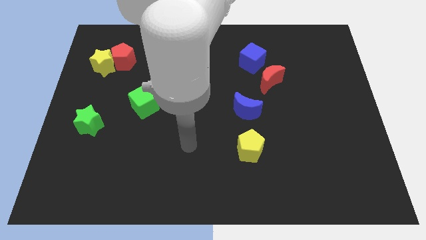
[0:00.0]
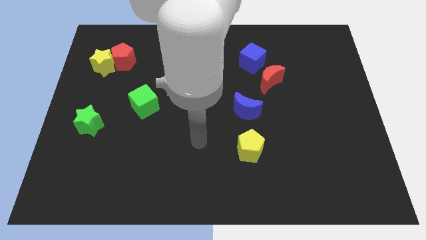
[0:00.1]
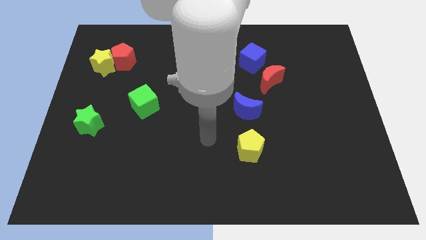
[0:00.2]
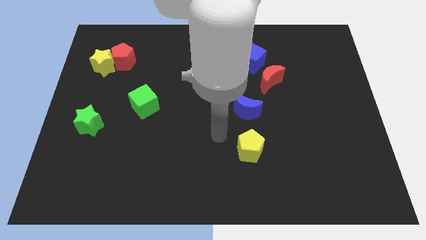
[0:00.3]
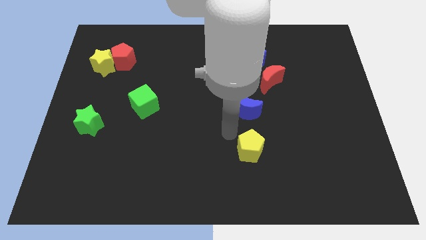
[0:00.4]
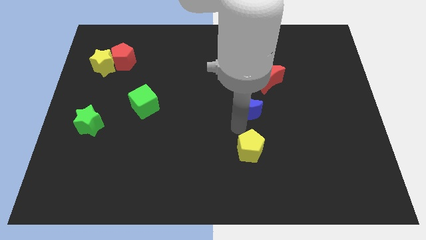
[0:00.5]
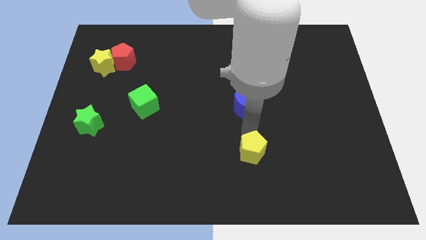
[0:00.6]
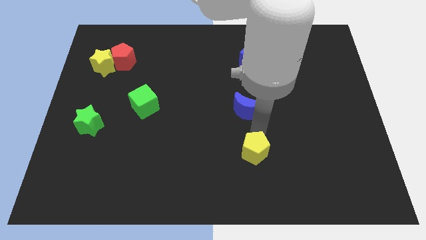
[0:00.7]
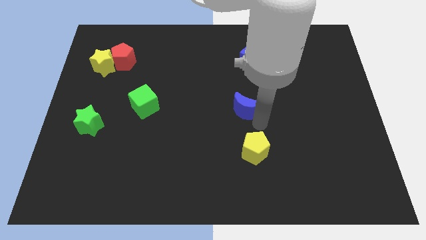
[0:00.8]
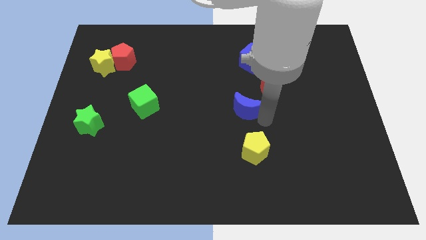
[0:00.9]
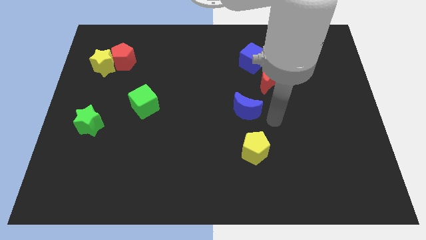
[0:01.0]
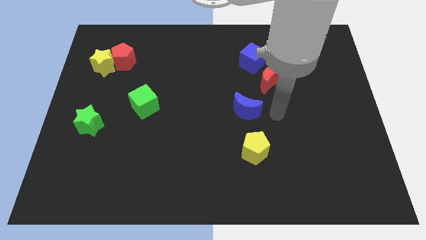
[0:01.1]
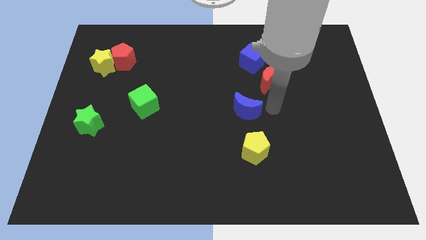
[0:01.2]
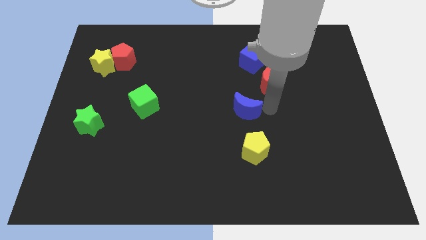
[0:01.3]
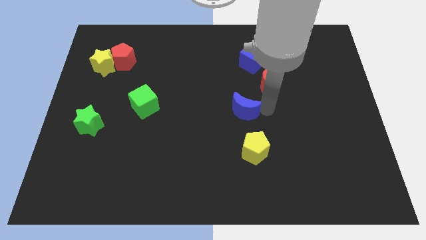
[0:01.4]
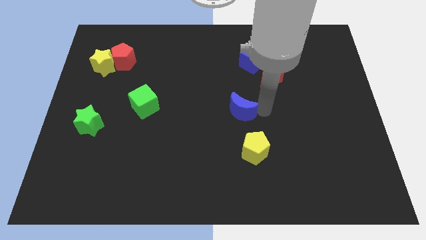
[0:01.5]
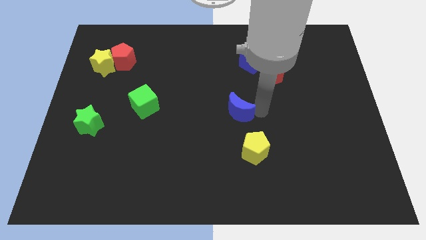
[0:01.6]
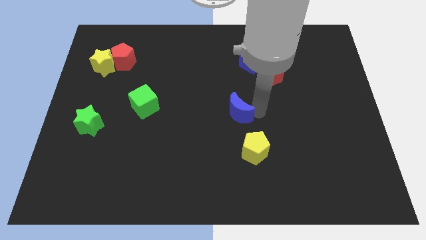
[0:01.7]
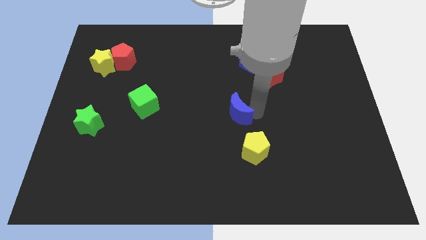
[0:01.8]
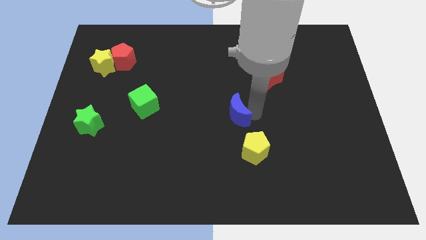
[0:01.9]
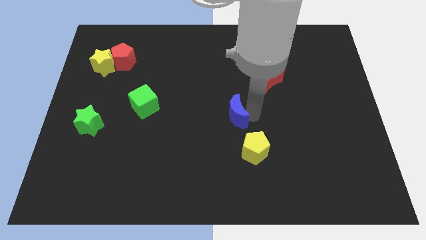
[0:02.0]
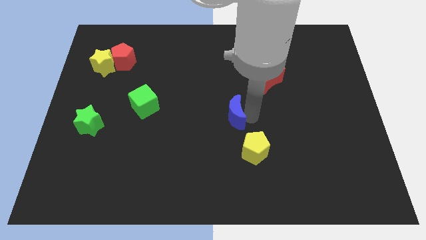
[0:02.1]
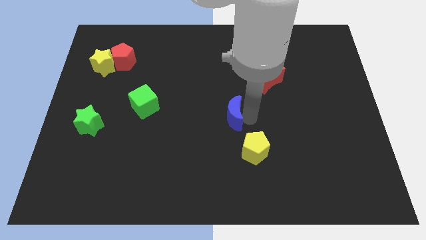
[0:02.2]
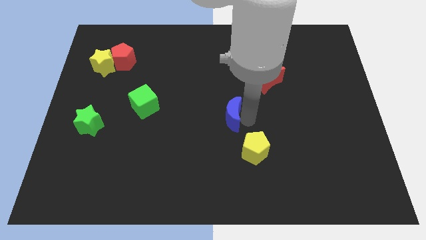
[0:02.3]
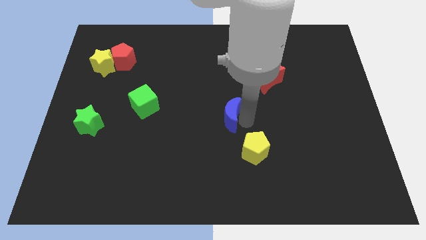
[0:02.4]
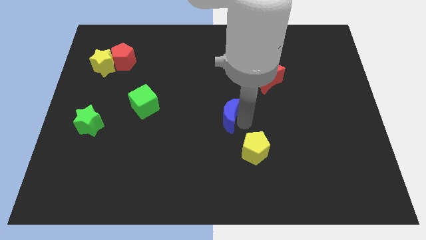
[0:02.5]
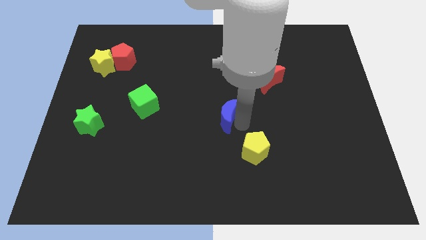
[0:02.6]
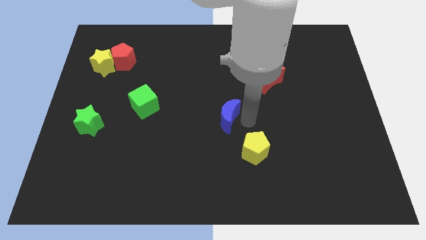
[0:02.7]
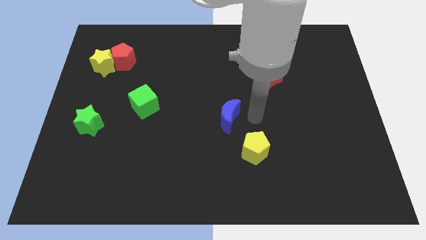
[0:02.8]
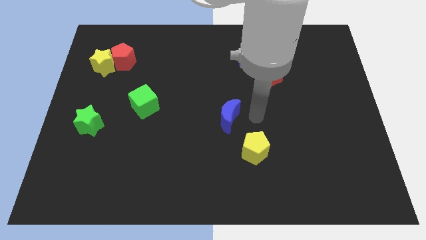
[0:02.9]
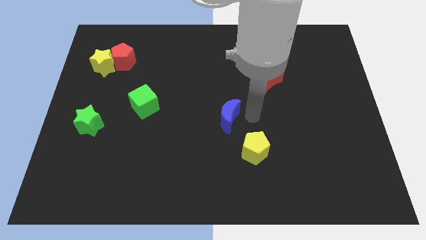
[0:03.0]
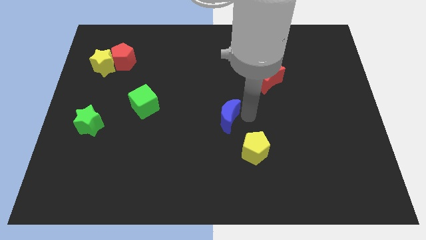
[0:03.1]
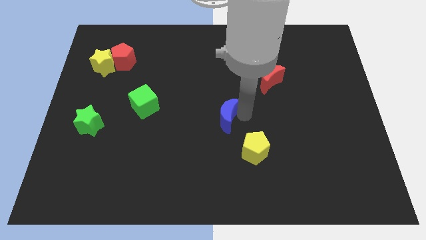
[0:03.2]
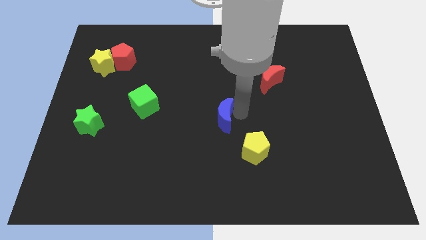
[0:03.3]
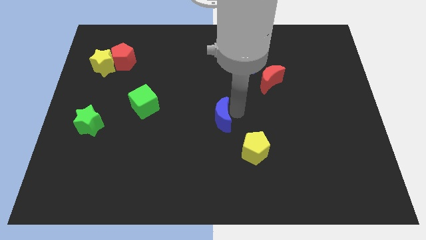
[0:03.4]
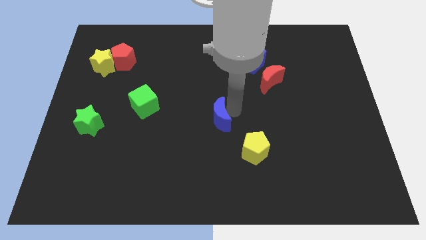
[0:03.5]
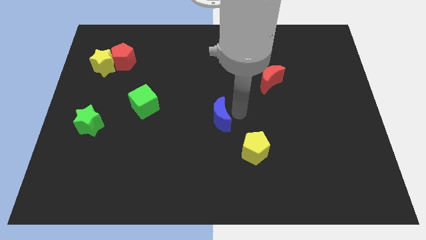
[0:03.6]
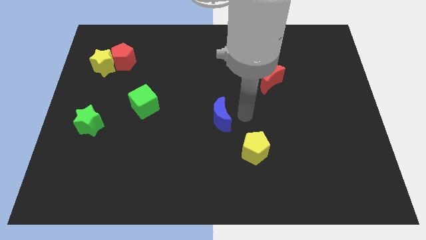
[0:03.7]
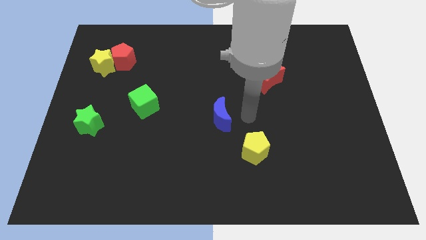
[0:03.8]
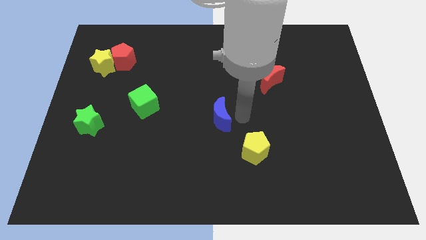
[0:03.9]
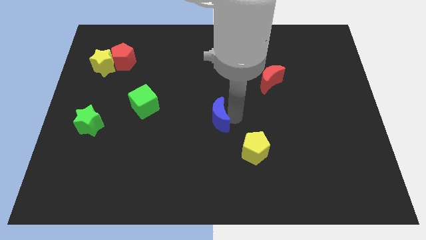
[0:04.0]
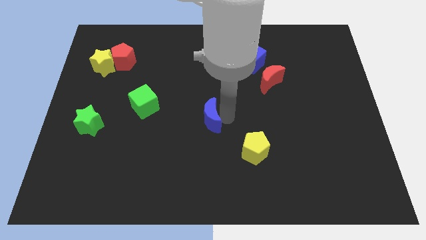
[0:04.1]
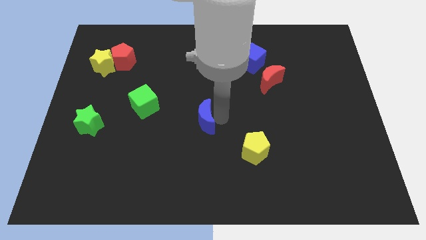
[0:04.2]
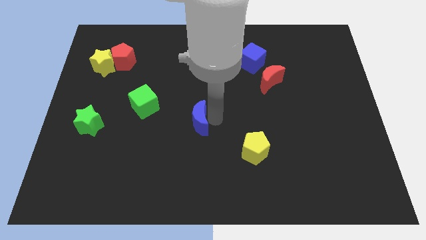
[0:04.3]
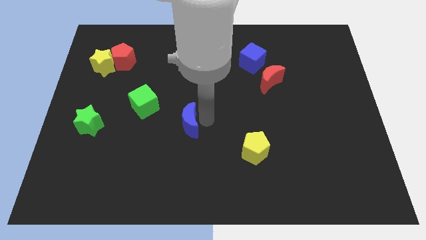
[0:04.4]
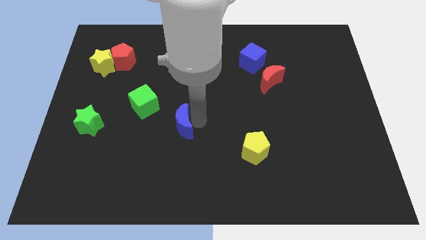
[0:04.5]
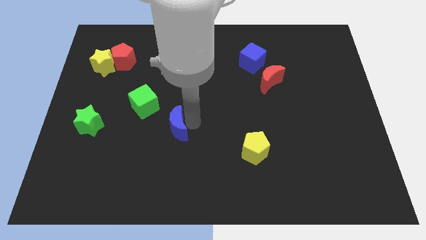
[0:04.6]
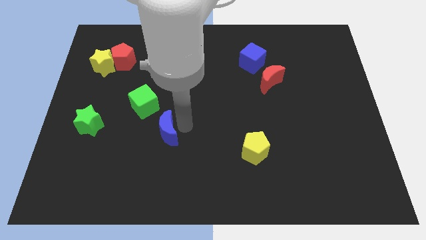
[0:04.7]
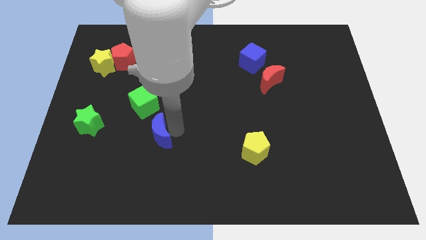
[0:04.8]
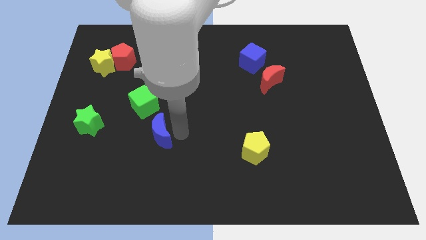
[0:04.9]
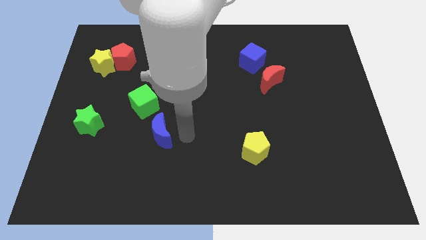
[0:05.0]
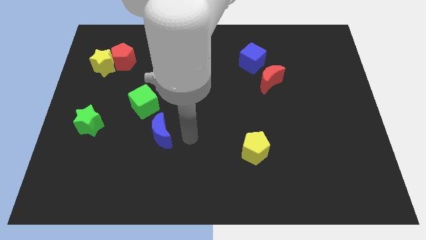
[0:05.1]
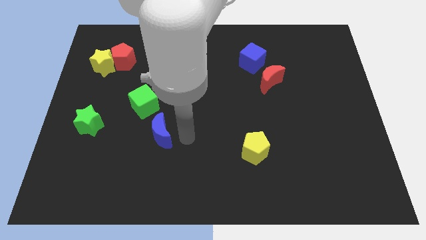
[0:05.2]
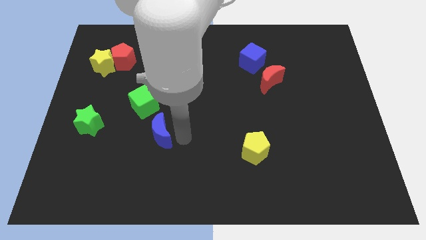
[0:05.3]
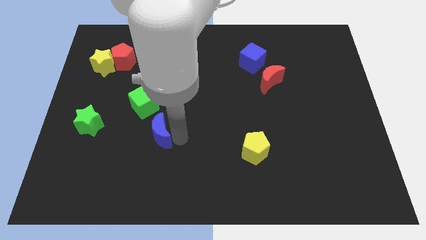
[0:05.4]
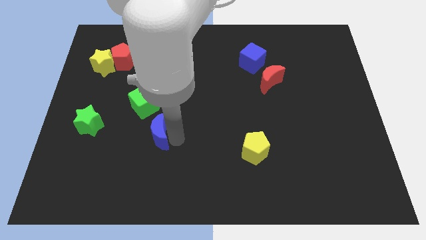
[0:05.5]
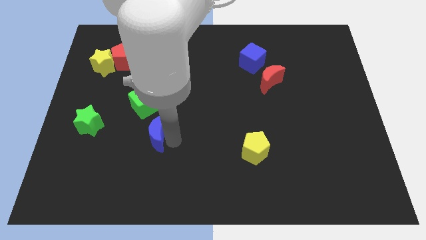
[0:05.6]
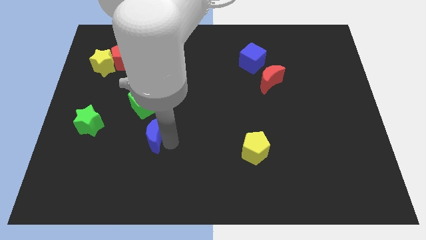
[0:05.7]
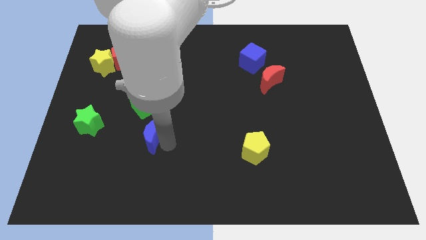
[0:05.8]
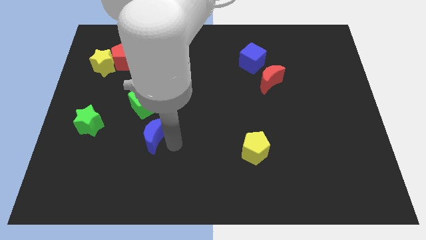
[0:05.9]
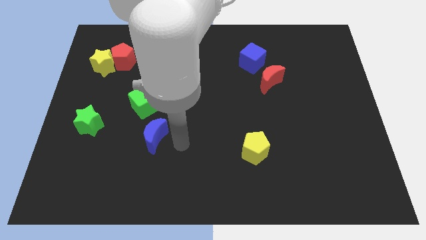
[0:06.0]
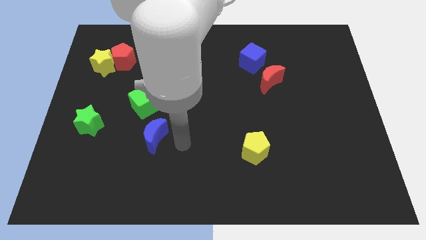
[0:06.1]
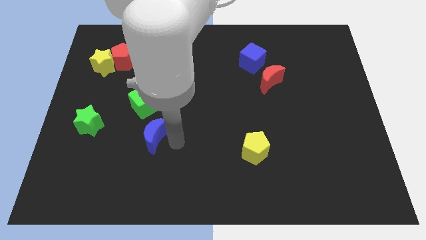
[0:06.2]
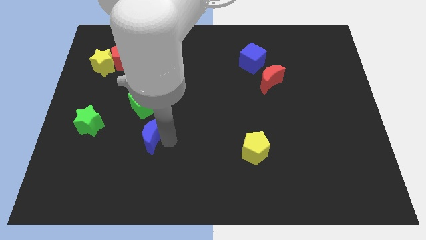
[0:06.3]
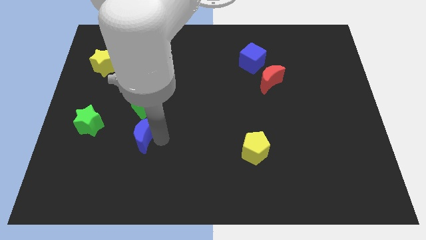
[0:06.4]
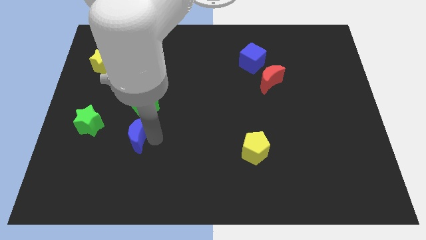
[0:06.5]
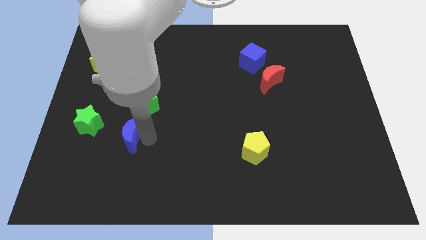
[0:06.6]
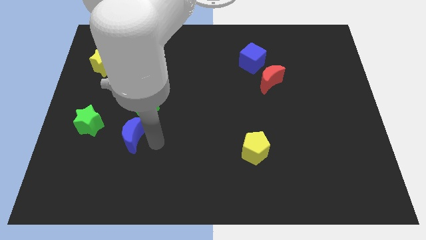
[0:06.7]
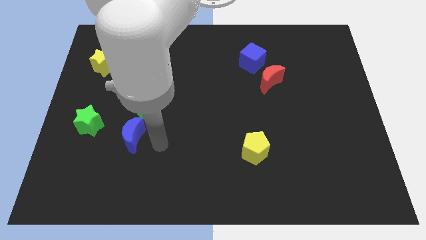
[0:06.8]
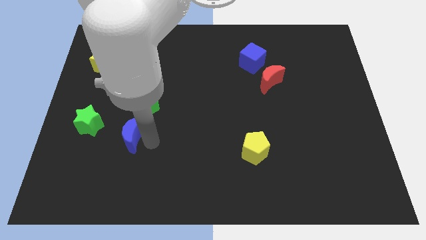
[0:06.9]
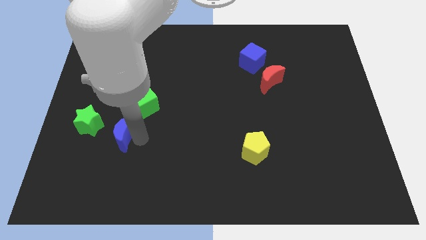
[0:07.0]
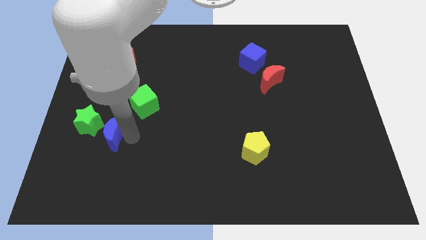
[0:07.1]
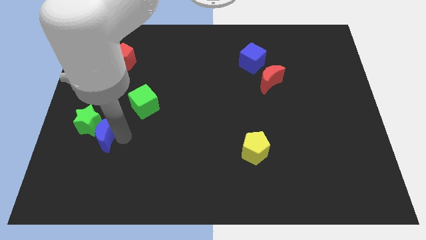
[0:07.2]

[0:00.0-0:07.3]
push the blue moon to the green star
